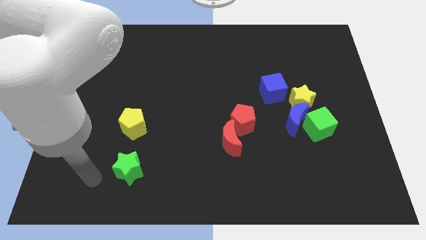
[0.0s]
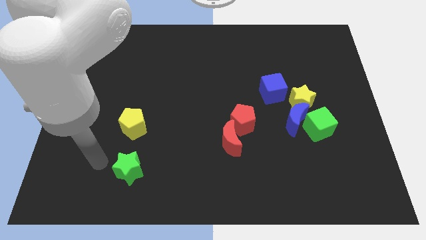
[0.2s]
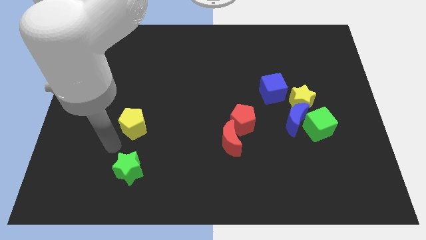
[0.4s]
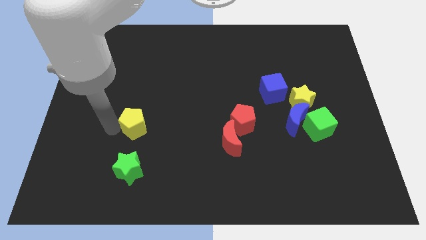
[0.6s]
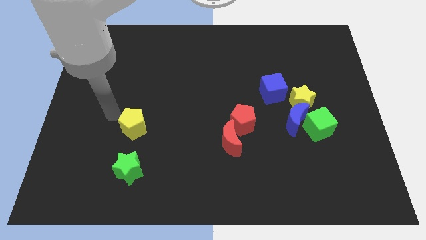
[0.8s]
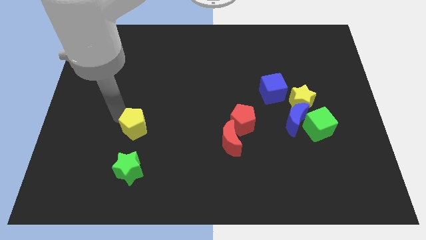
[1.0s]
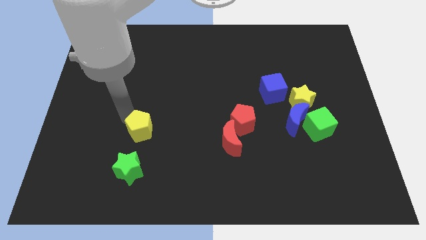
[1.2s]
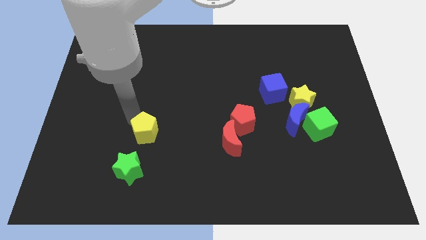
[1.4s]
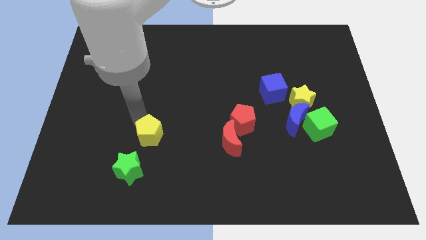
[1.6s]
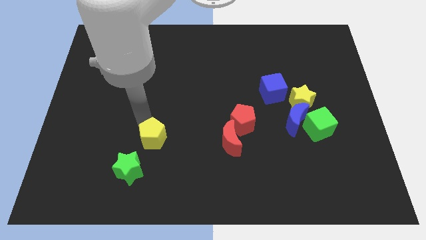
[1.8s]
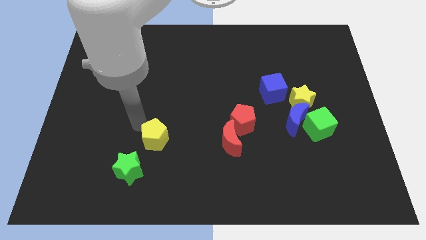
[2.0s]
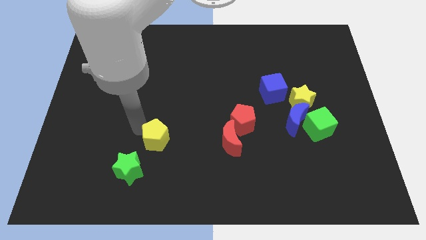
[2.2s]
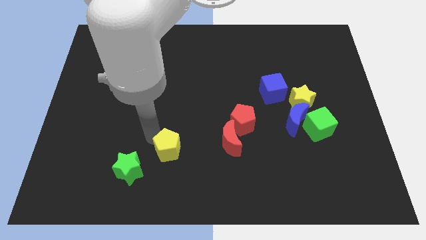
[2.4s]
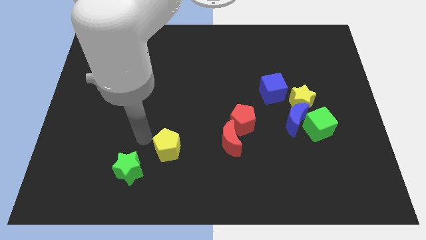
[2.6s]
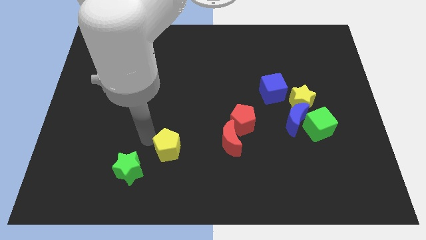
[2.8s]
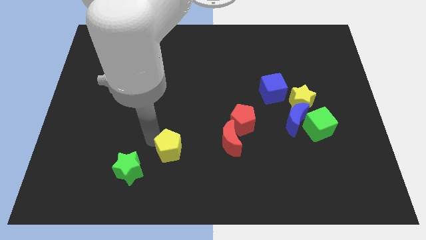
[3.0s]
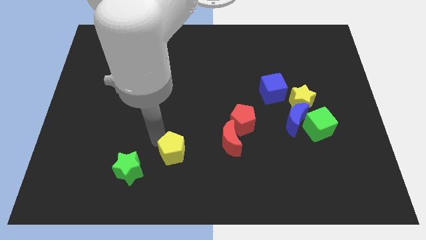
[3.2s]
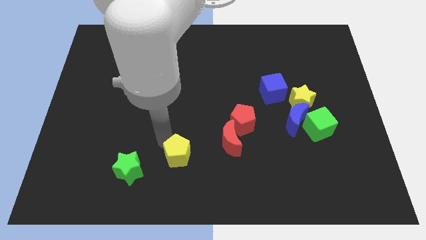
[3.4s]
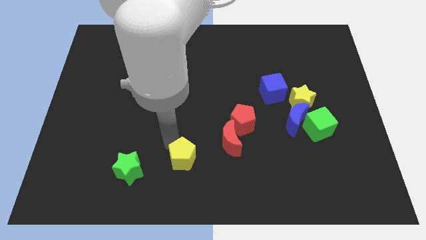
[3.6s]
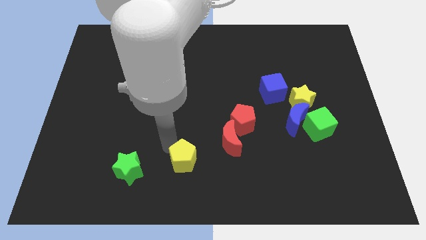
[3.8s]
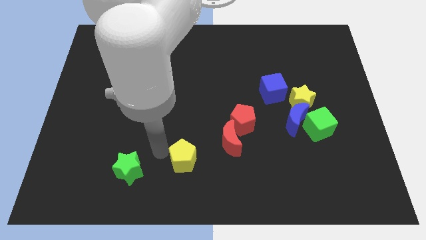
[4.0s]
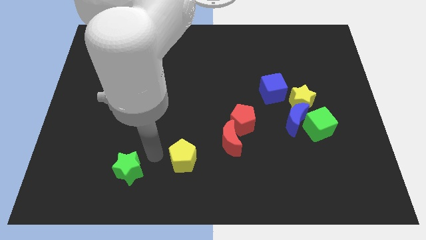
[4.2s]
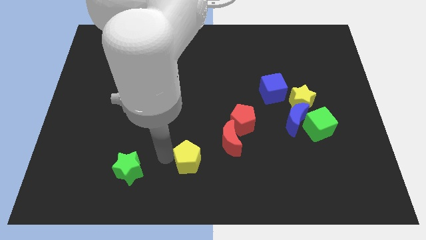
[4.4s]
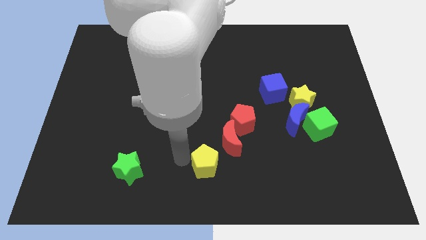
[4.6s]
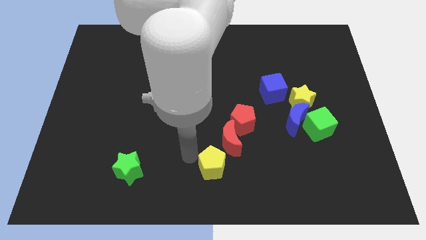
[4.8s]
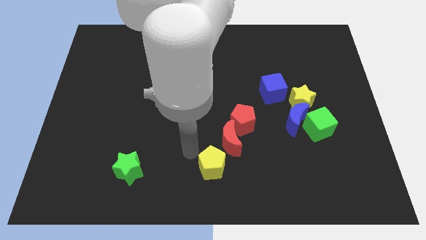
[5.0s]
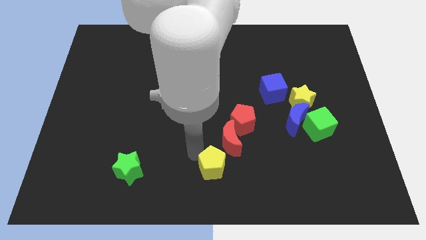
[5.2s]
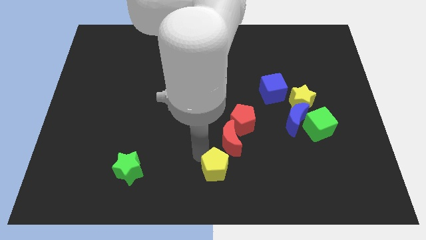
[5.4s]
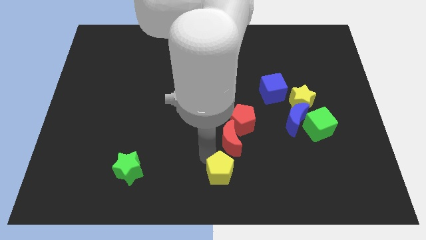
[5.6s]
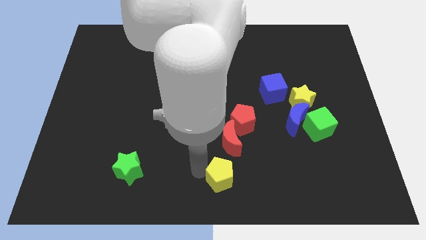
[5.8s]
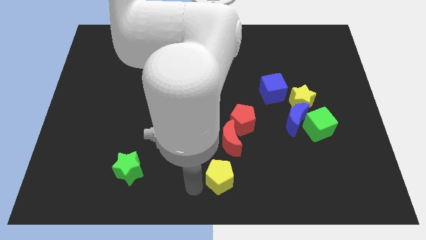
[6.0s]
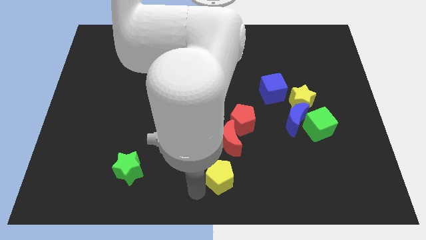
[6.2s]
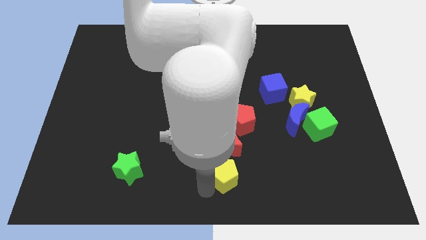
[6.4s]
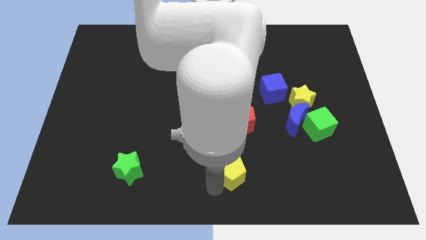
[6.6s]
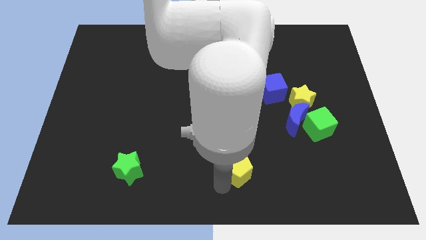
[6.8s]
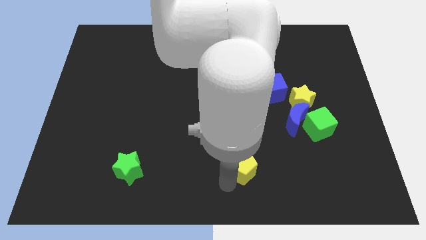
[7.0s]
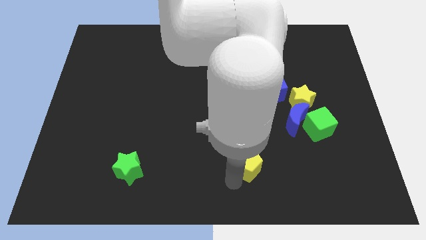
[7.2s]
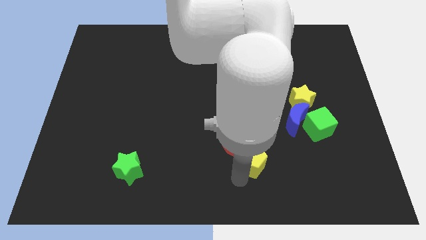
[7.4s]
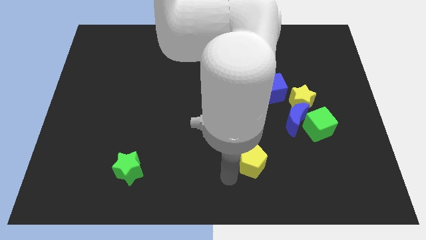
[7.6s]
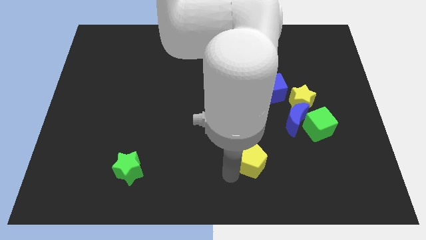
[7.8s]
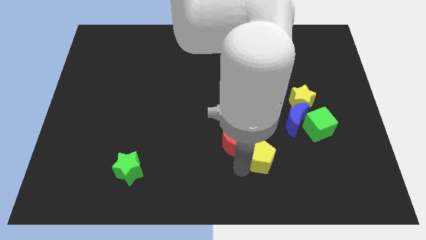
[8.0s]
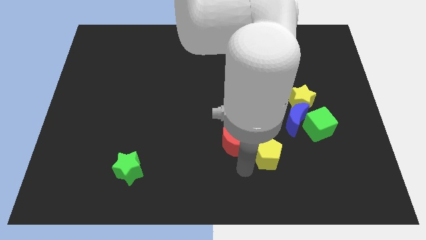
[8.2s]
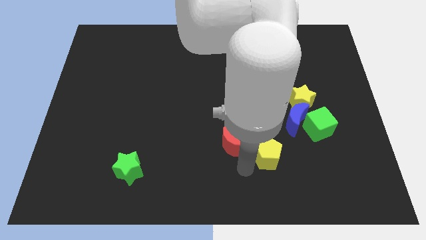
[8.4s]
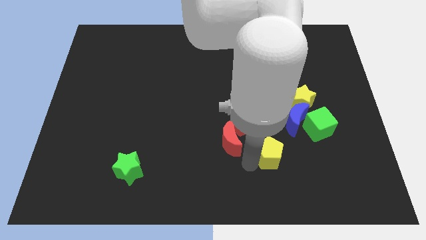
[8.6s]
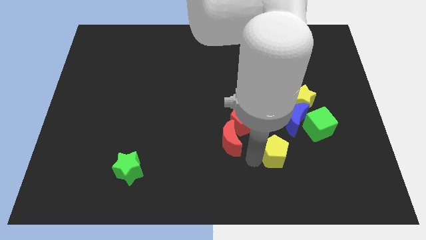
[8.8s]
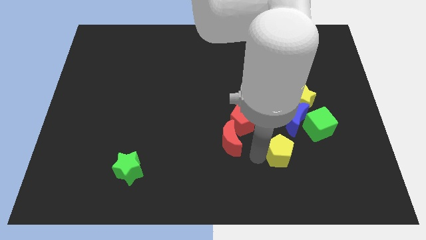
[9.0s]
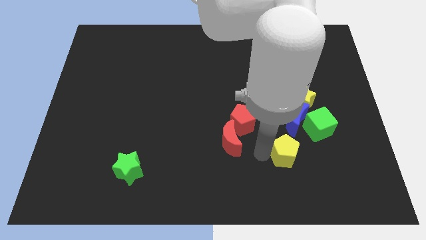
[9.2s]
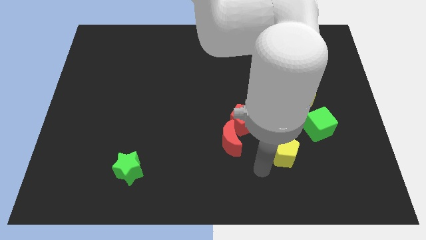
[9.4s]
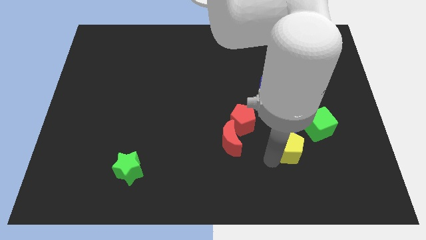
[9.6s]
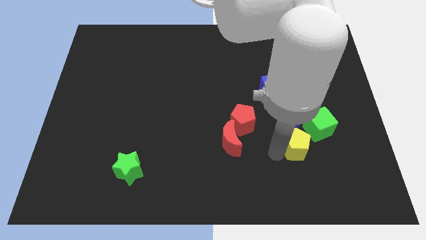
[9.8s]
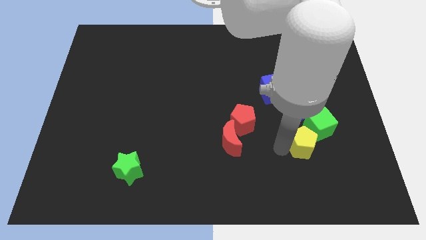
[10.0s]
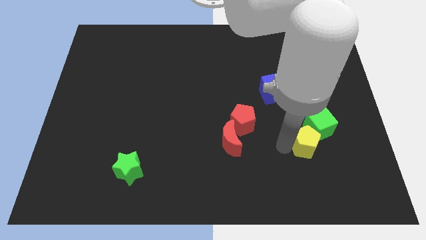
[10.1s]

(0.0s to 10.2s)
slide the yellow pentagon to the green cube

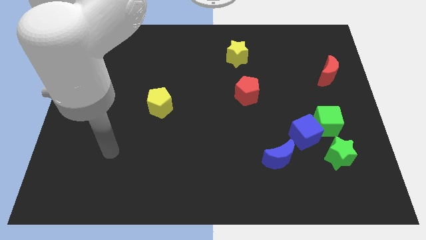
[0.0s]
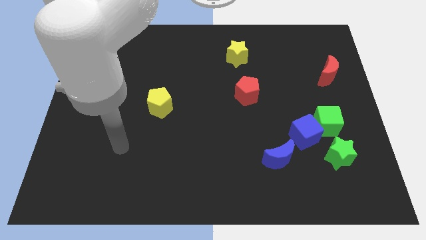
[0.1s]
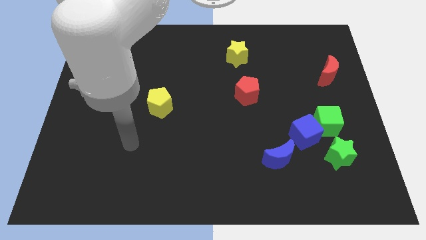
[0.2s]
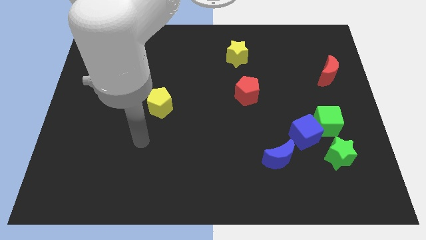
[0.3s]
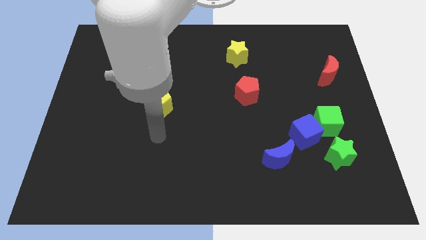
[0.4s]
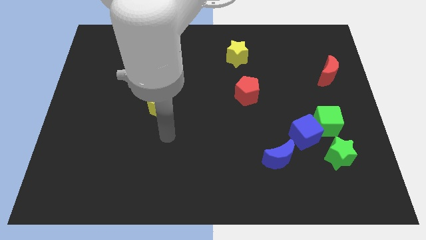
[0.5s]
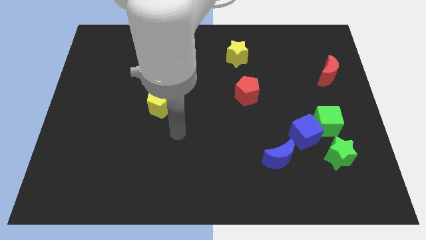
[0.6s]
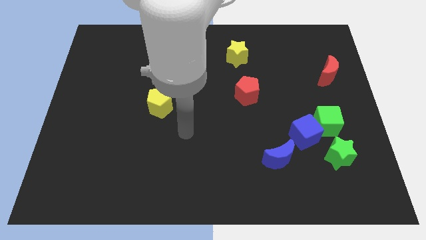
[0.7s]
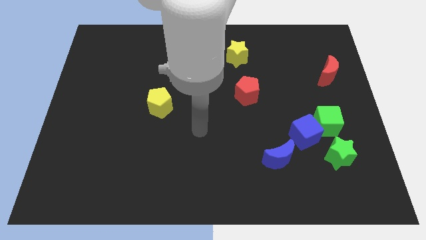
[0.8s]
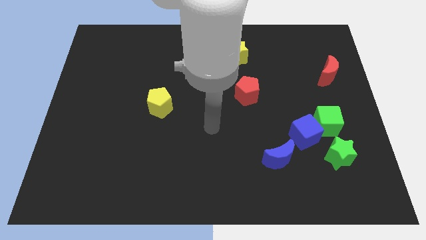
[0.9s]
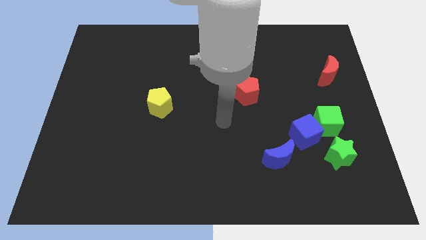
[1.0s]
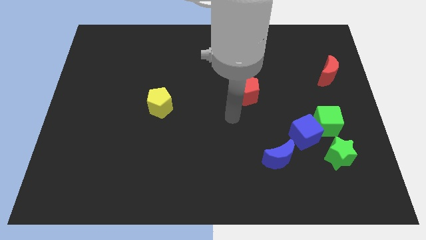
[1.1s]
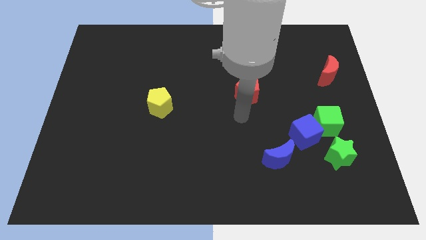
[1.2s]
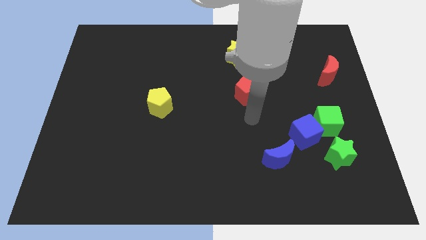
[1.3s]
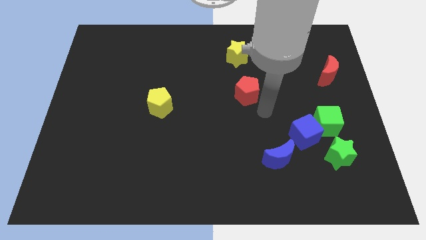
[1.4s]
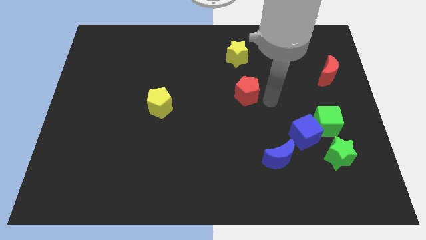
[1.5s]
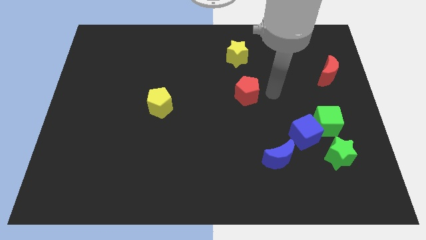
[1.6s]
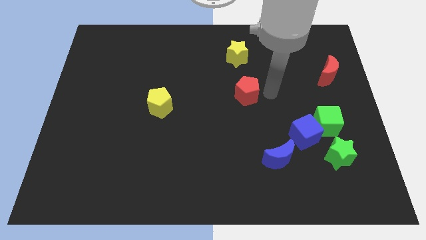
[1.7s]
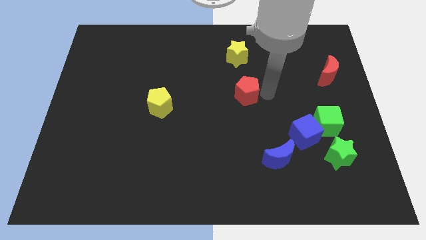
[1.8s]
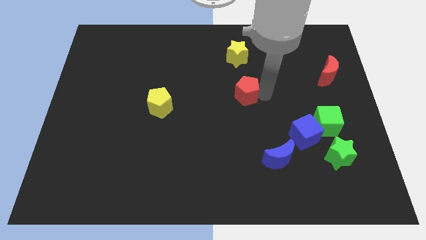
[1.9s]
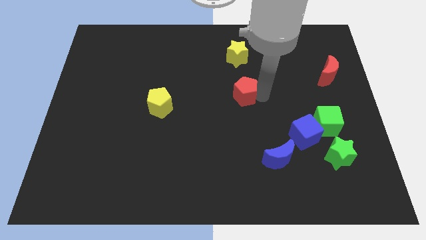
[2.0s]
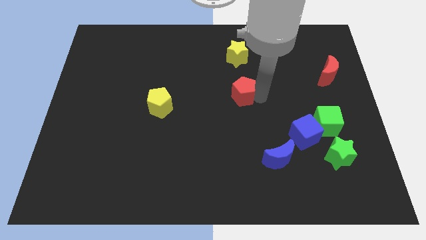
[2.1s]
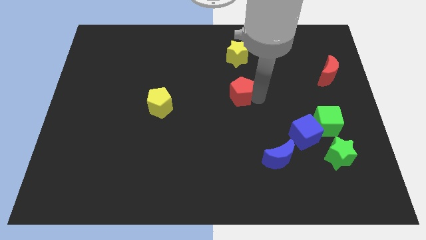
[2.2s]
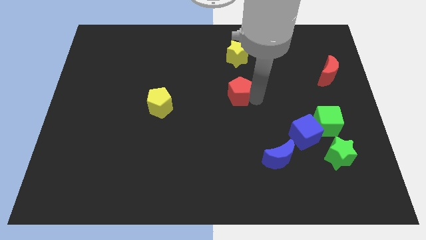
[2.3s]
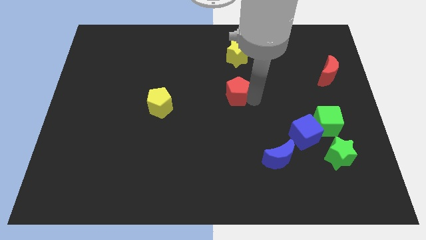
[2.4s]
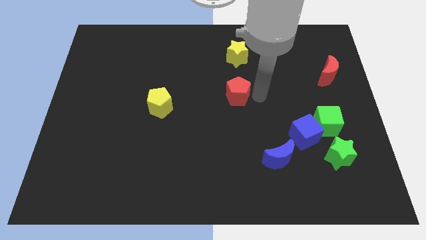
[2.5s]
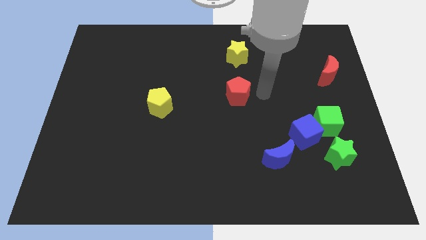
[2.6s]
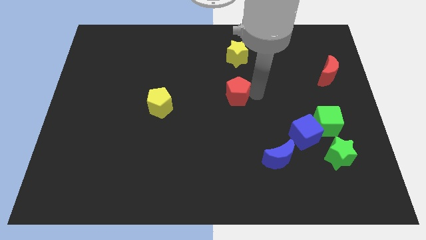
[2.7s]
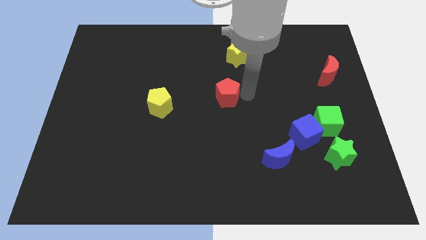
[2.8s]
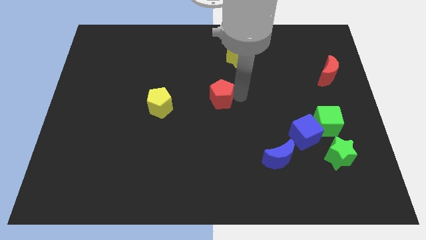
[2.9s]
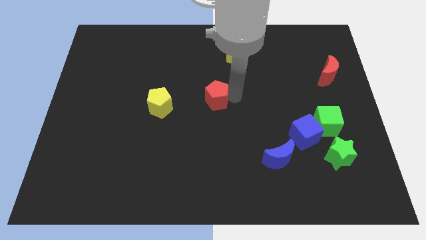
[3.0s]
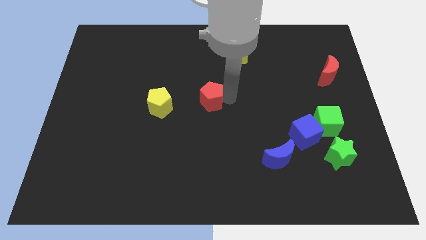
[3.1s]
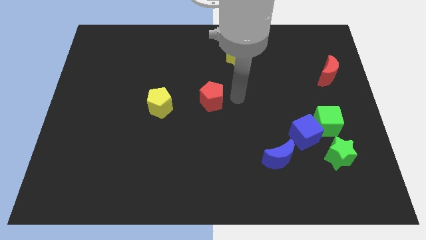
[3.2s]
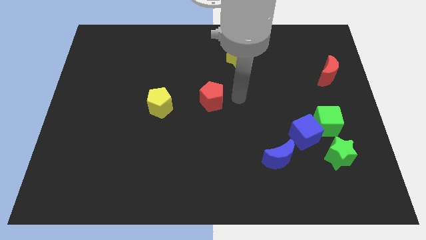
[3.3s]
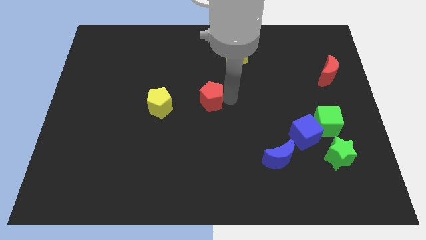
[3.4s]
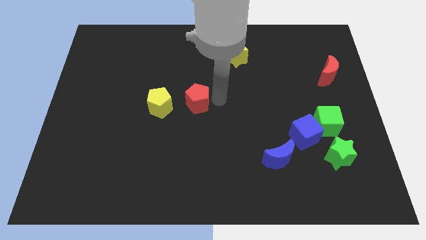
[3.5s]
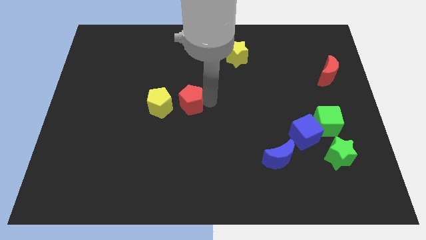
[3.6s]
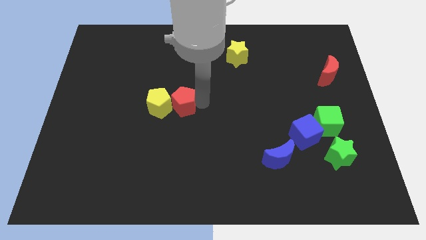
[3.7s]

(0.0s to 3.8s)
push the red pentagon next to the yellow pentagon
